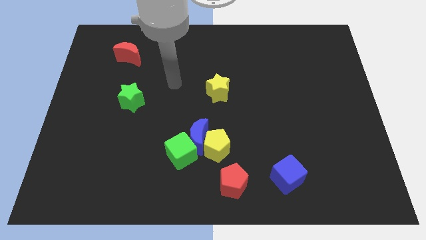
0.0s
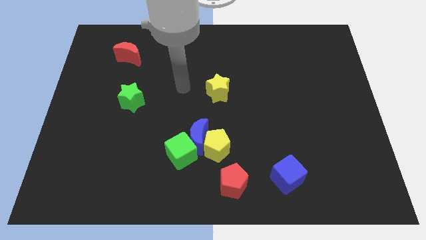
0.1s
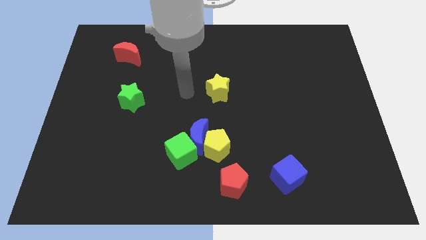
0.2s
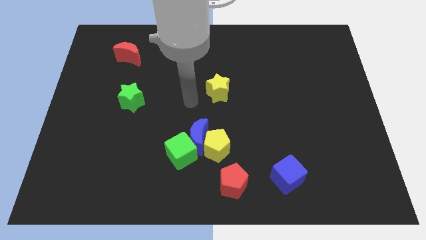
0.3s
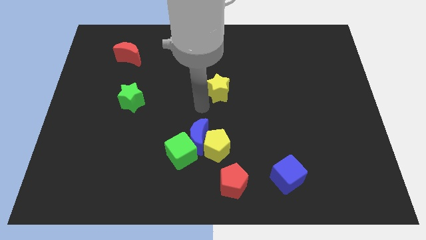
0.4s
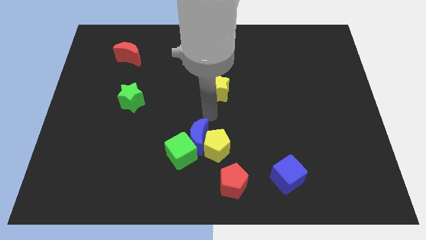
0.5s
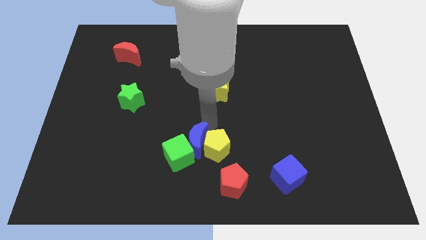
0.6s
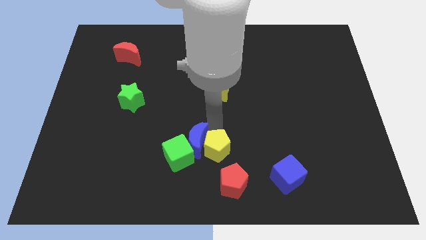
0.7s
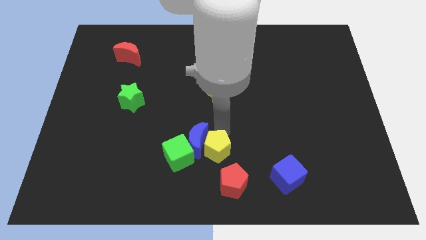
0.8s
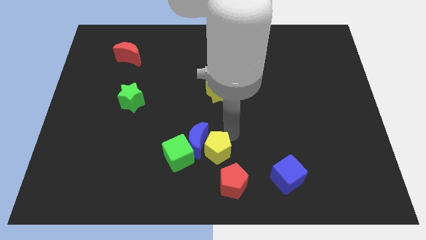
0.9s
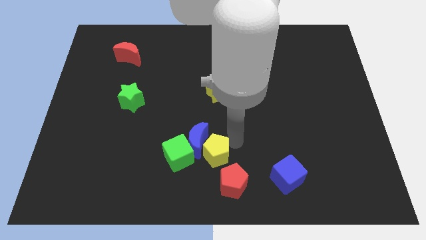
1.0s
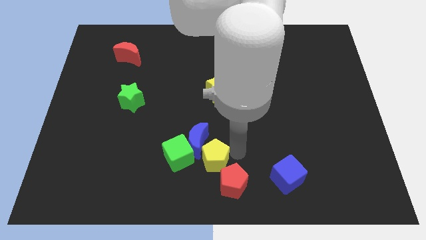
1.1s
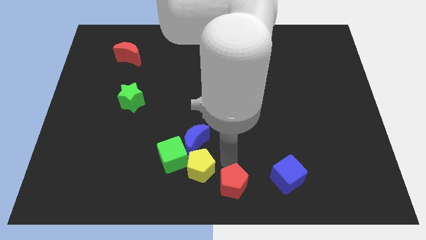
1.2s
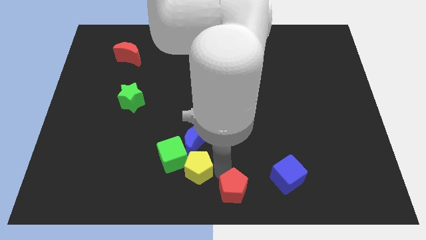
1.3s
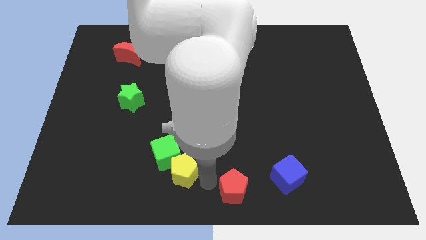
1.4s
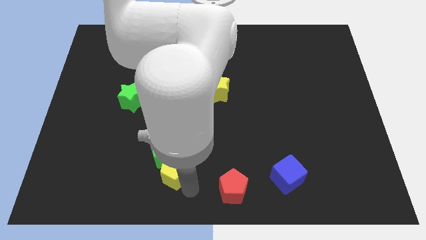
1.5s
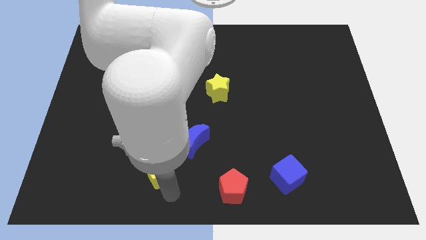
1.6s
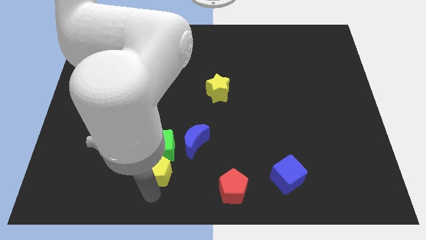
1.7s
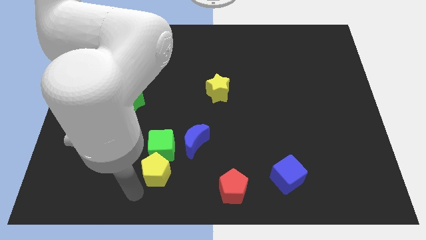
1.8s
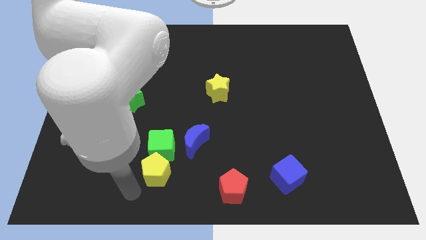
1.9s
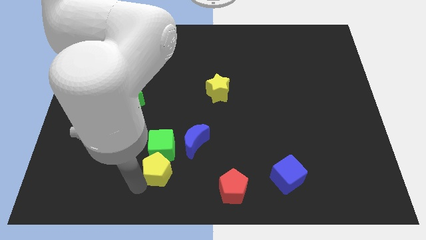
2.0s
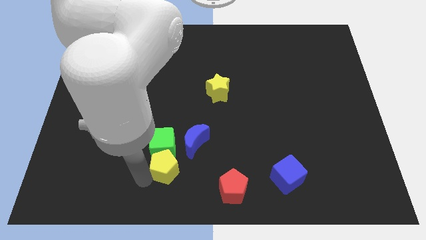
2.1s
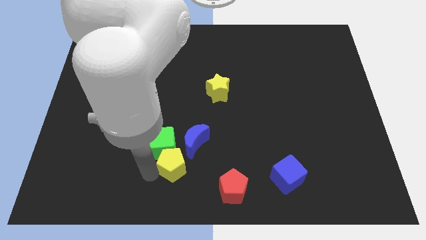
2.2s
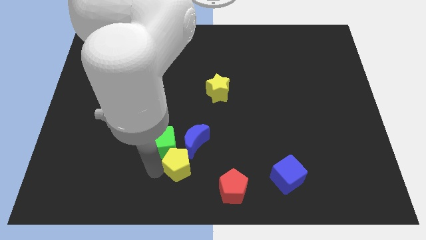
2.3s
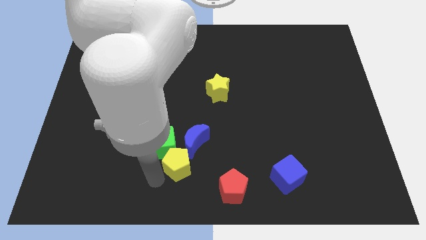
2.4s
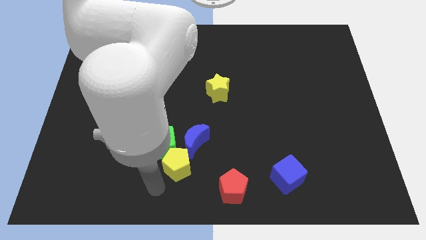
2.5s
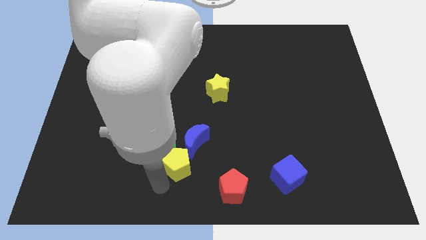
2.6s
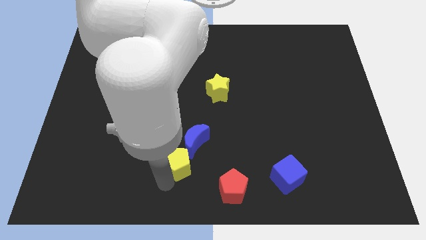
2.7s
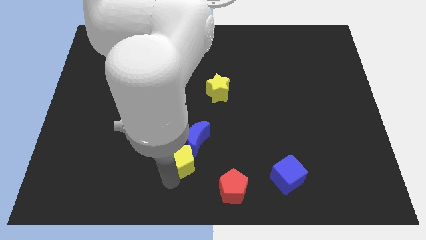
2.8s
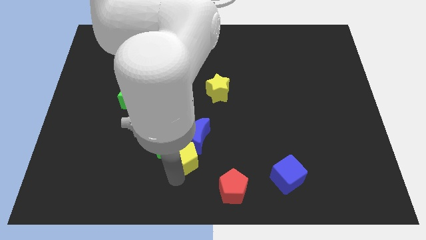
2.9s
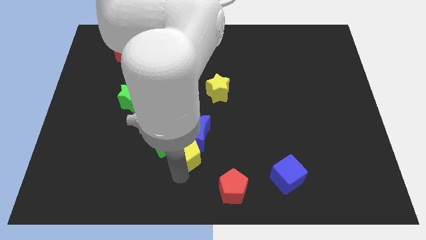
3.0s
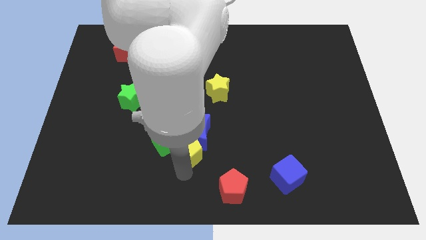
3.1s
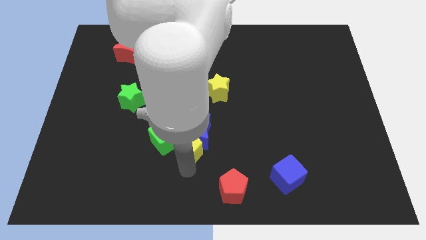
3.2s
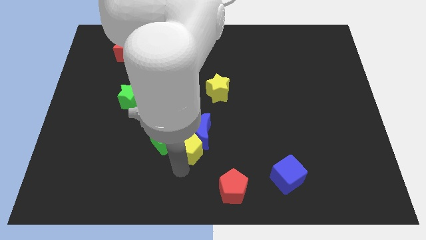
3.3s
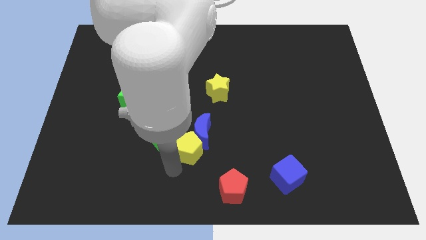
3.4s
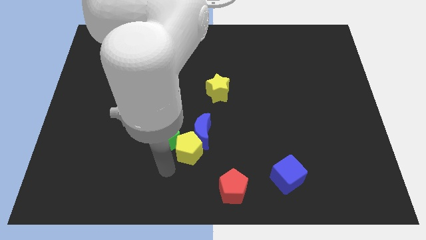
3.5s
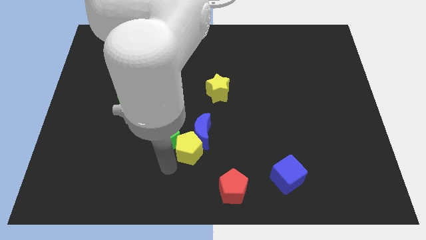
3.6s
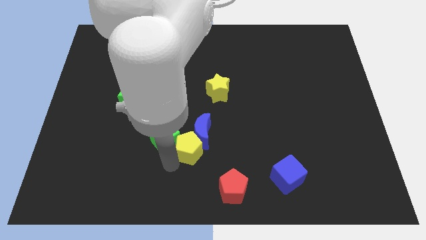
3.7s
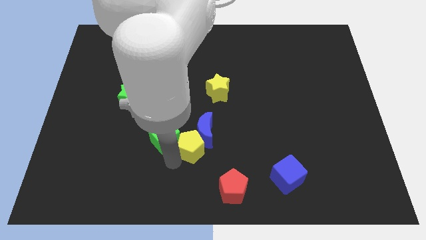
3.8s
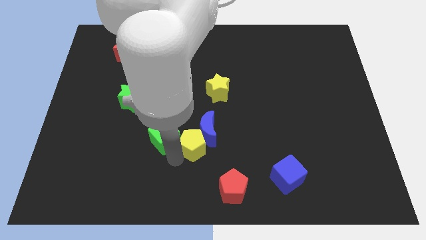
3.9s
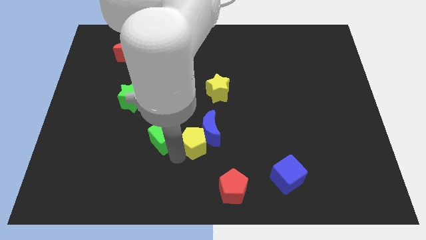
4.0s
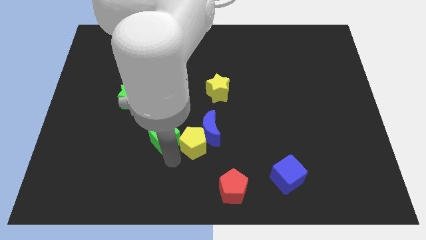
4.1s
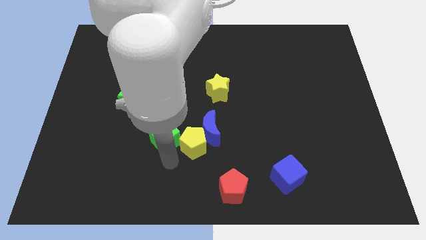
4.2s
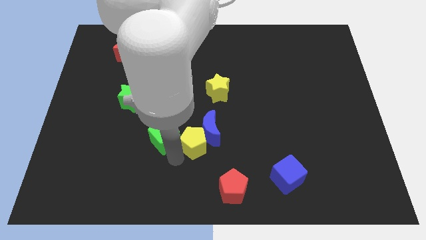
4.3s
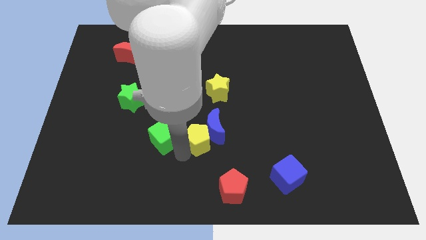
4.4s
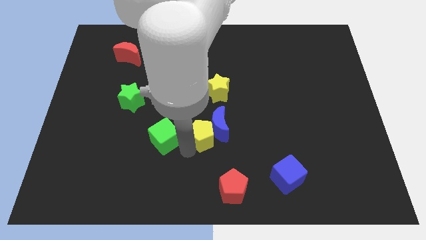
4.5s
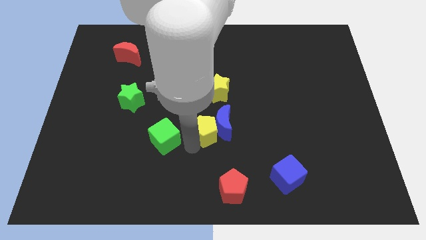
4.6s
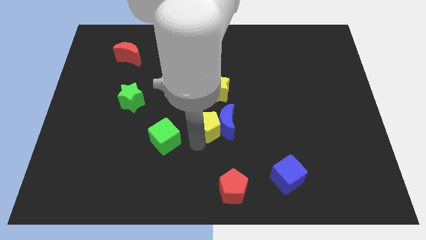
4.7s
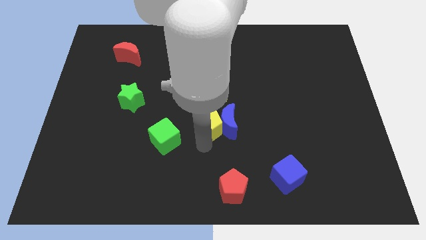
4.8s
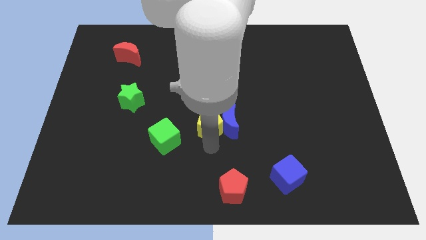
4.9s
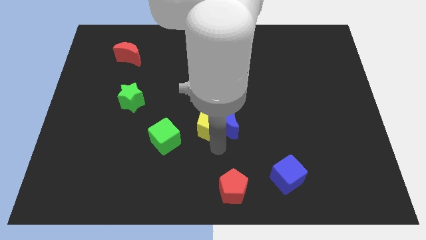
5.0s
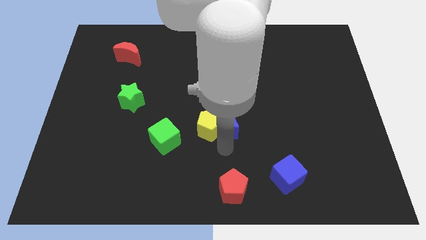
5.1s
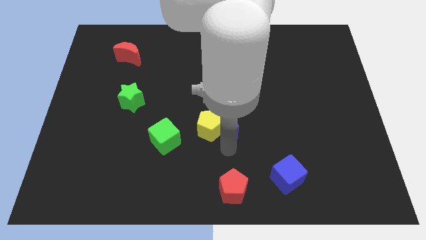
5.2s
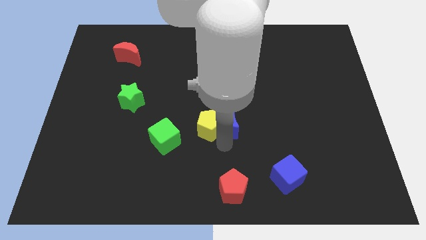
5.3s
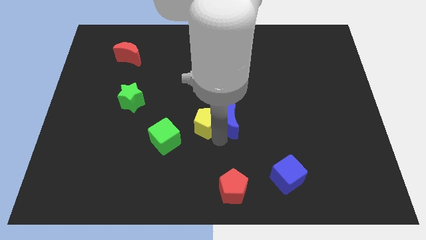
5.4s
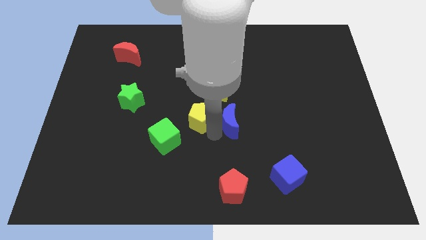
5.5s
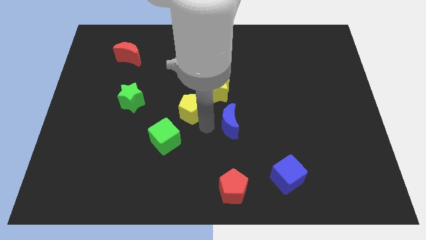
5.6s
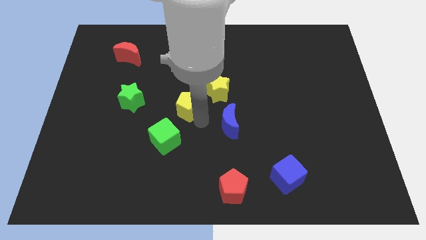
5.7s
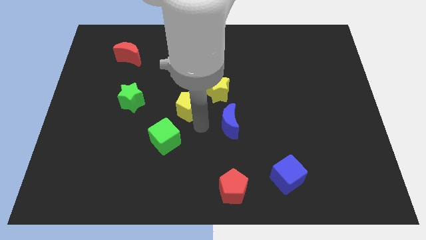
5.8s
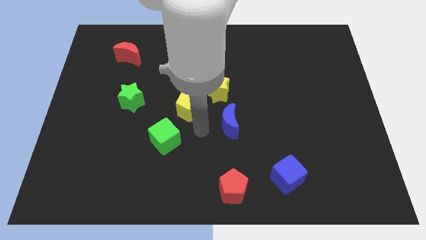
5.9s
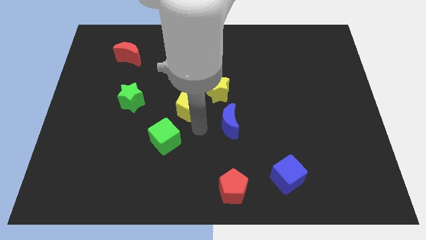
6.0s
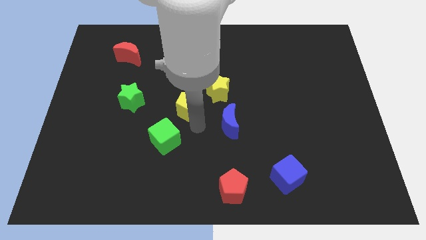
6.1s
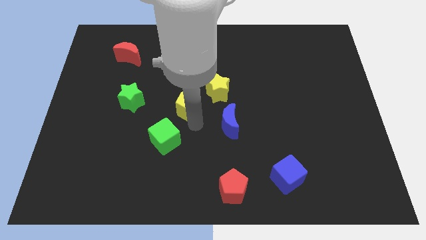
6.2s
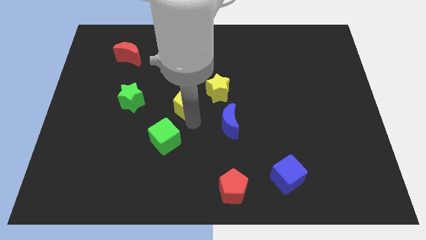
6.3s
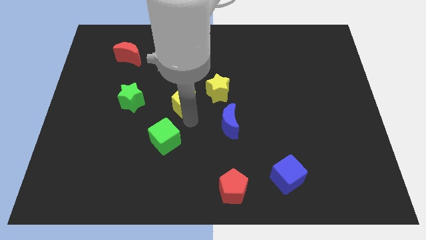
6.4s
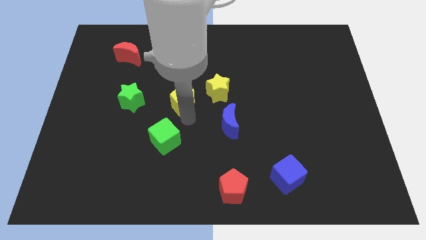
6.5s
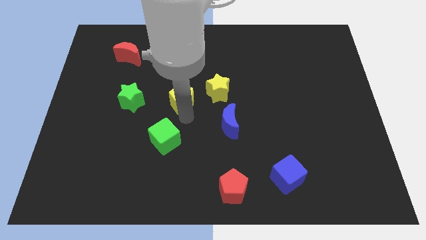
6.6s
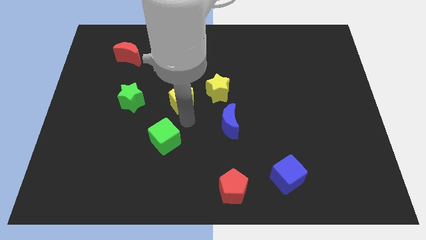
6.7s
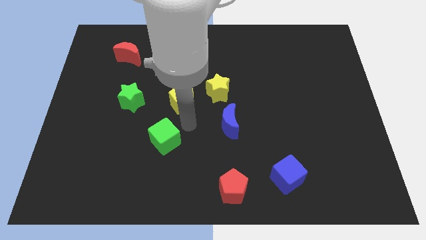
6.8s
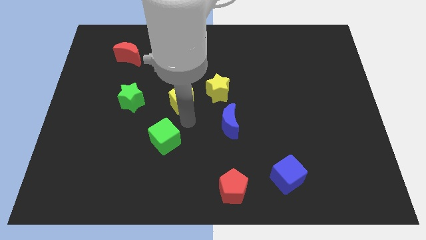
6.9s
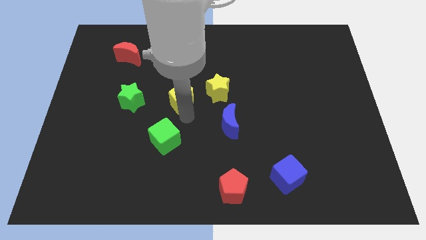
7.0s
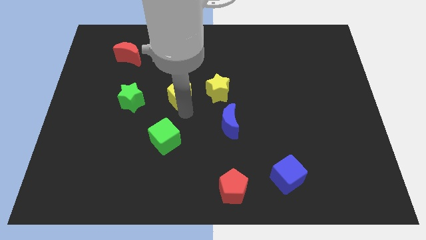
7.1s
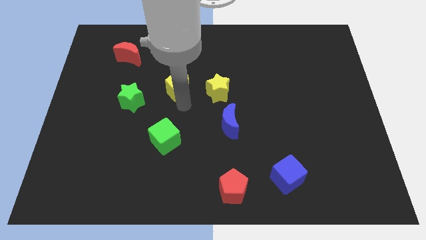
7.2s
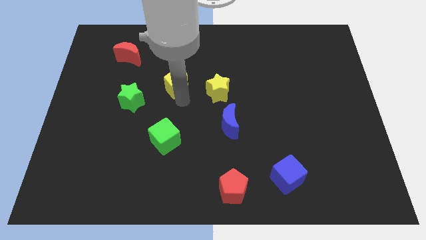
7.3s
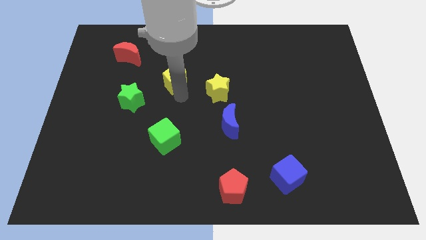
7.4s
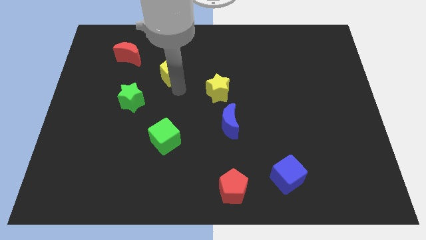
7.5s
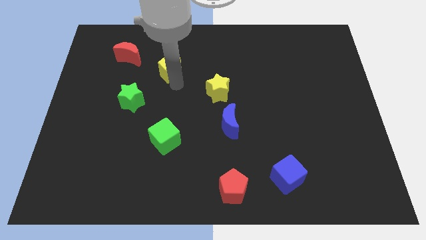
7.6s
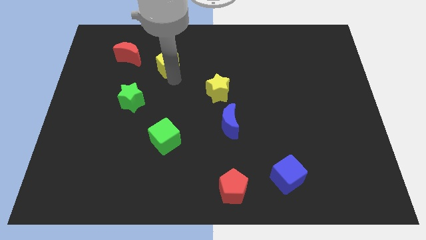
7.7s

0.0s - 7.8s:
slide the yellow pentagon right of the red moon
